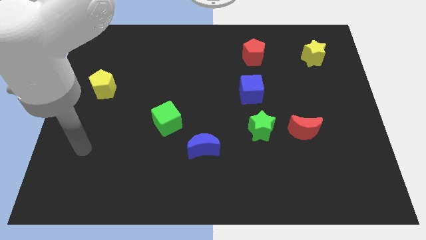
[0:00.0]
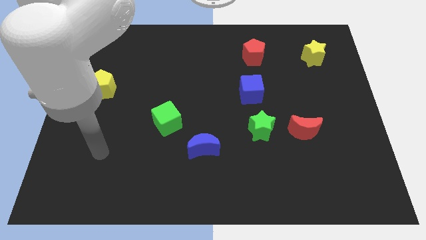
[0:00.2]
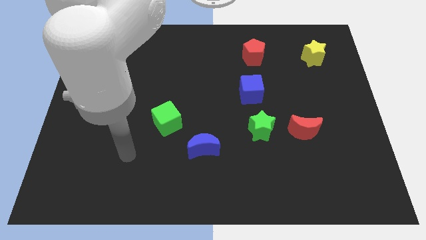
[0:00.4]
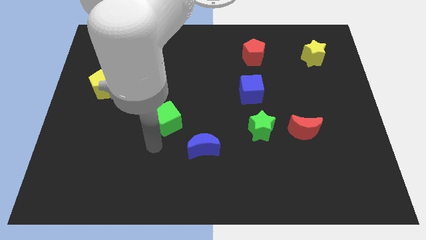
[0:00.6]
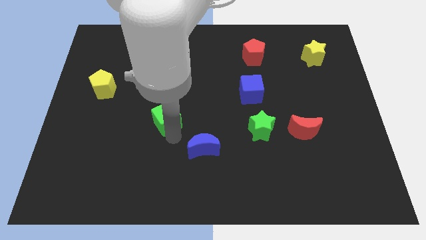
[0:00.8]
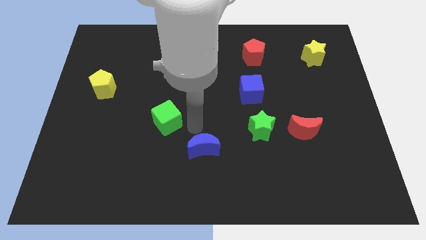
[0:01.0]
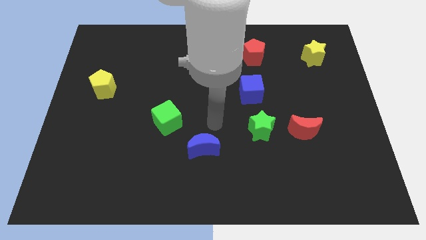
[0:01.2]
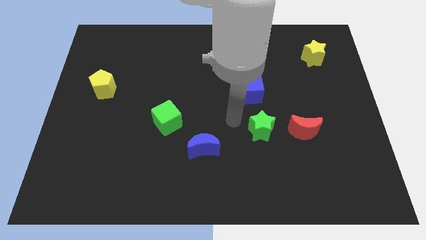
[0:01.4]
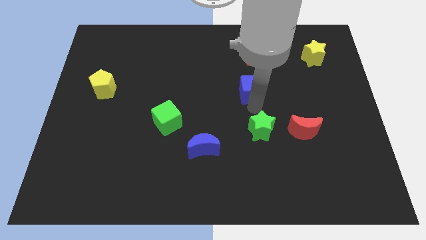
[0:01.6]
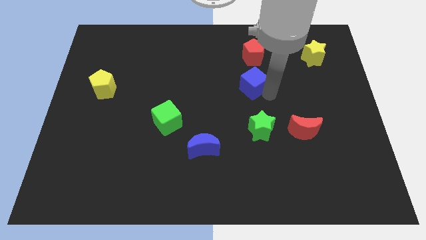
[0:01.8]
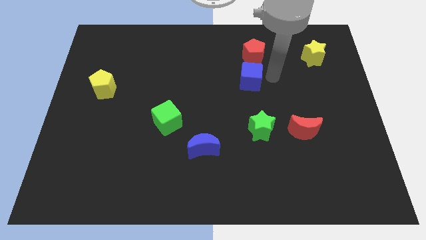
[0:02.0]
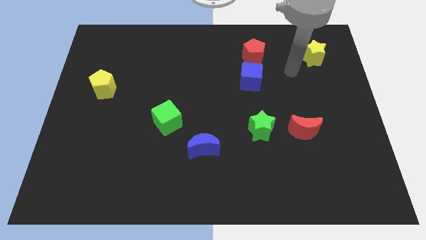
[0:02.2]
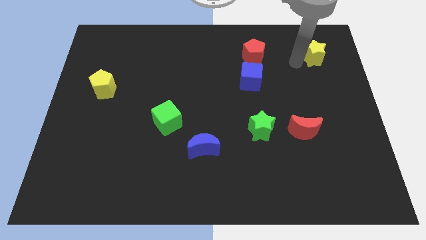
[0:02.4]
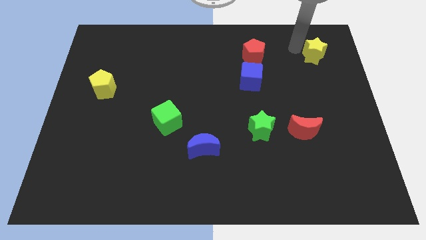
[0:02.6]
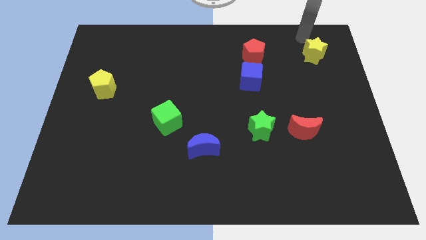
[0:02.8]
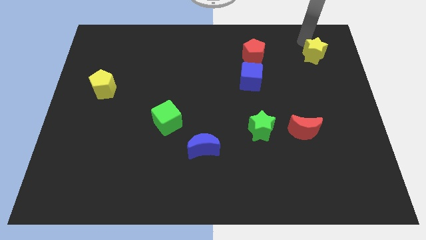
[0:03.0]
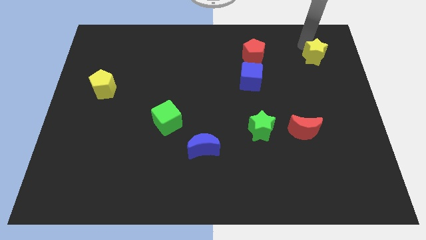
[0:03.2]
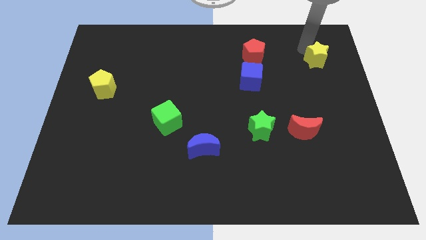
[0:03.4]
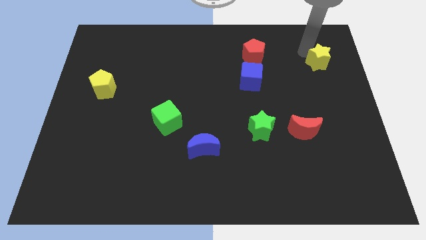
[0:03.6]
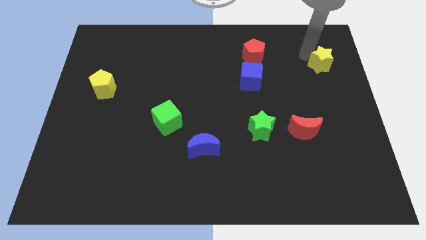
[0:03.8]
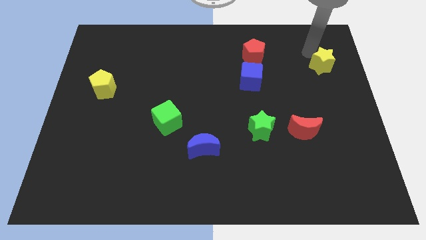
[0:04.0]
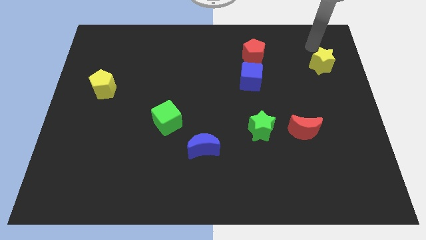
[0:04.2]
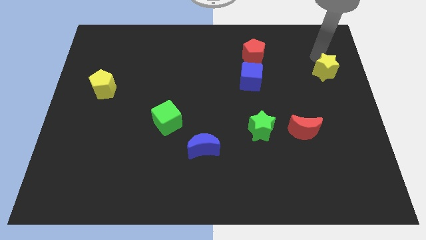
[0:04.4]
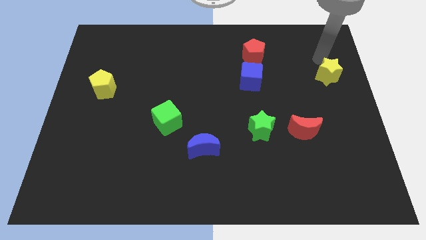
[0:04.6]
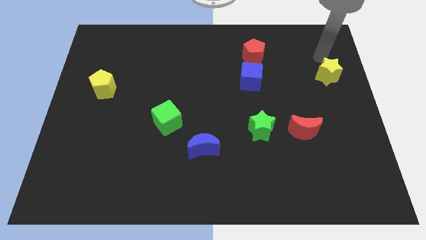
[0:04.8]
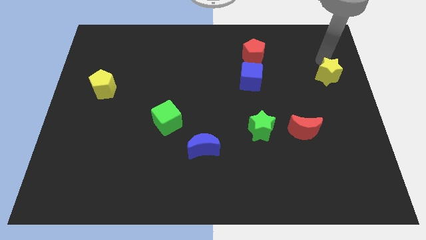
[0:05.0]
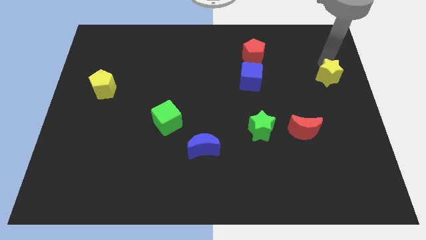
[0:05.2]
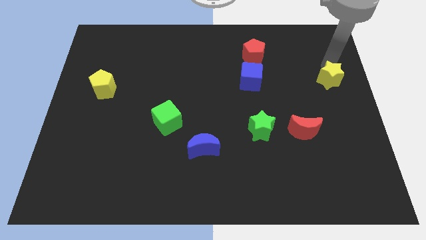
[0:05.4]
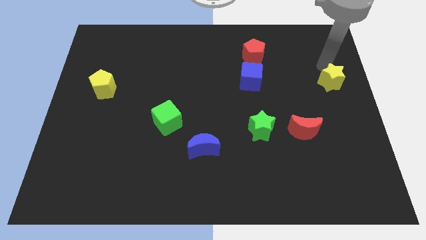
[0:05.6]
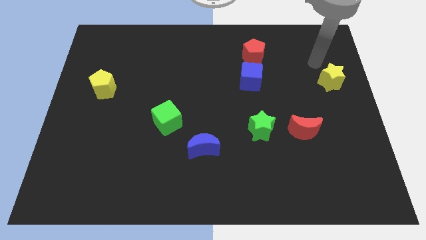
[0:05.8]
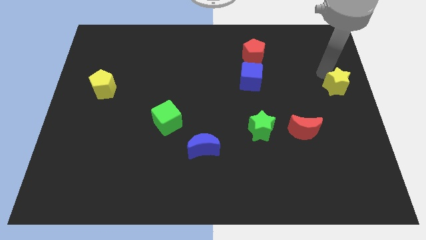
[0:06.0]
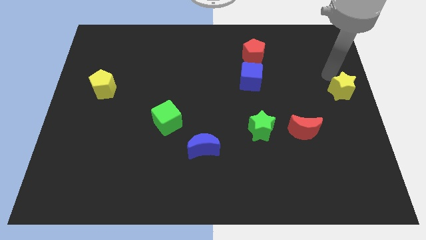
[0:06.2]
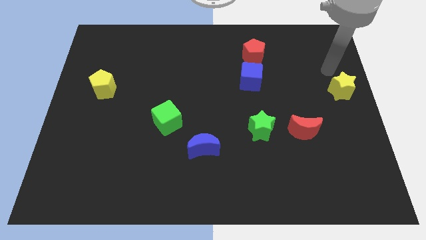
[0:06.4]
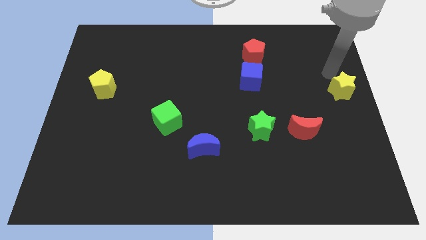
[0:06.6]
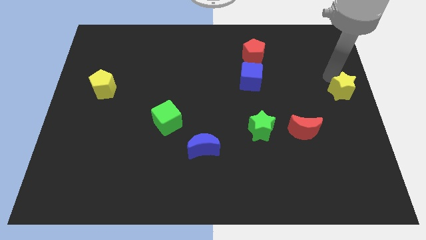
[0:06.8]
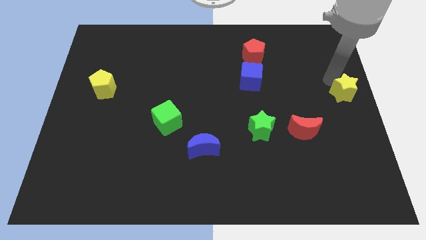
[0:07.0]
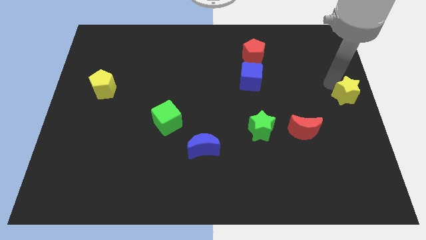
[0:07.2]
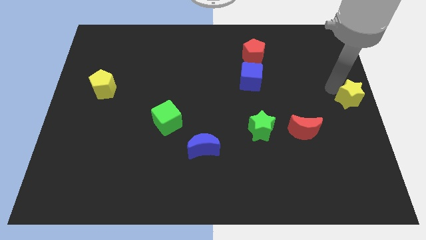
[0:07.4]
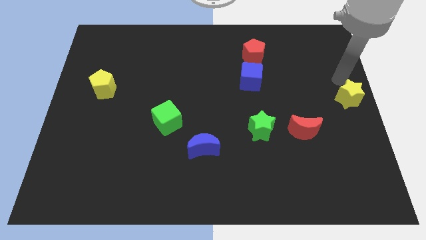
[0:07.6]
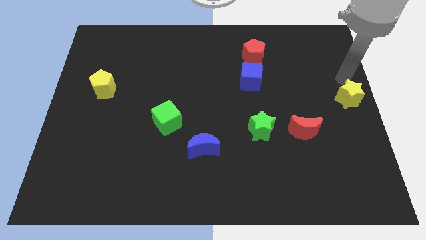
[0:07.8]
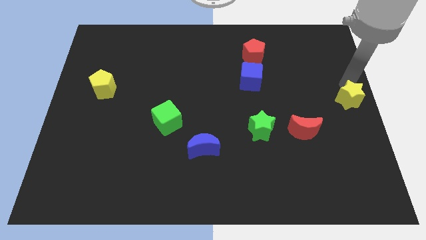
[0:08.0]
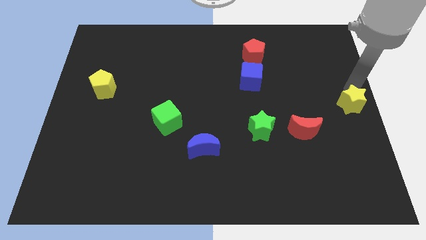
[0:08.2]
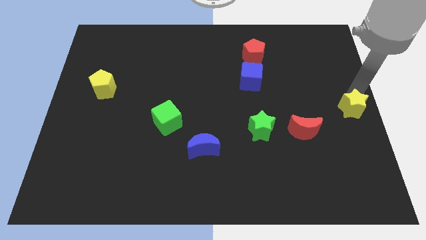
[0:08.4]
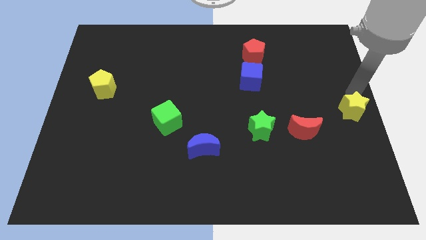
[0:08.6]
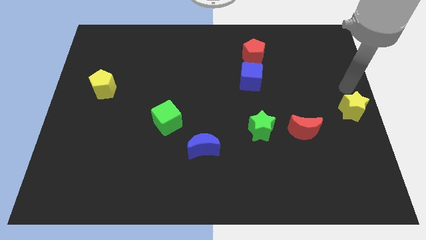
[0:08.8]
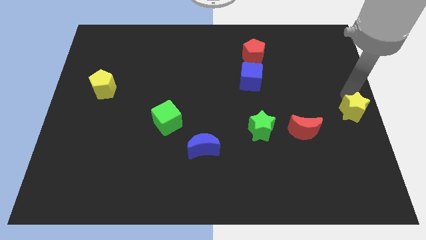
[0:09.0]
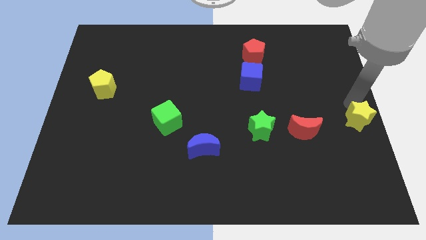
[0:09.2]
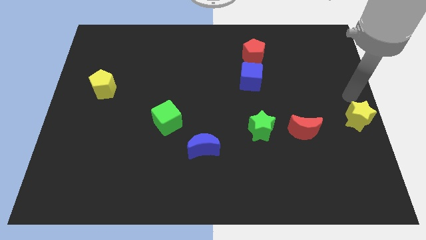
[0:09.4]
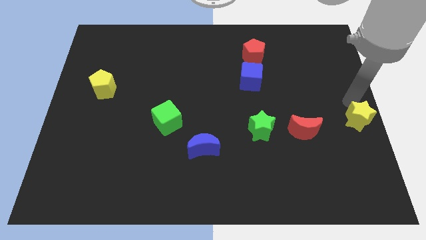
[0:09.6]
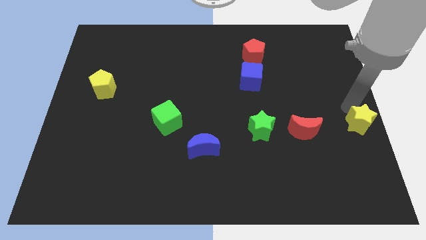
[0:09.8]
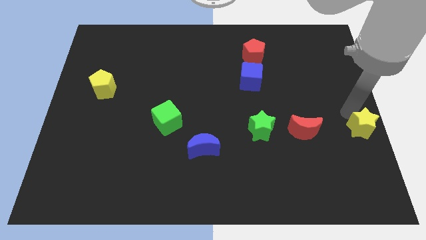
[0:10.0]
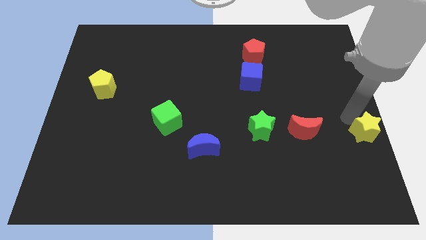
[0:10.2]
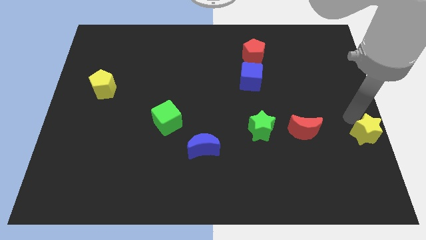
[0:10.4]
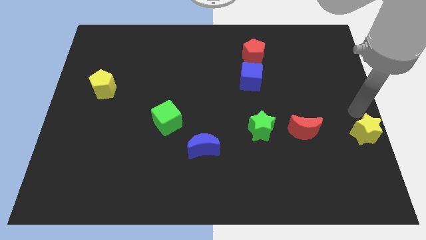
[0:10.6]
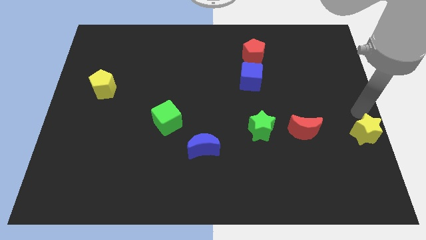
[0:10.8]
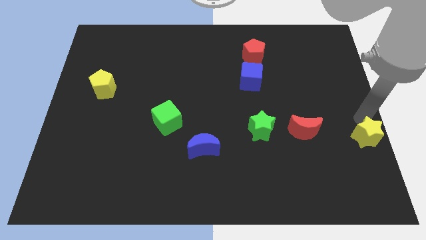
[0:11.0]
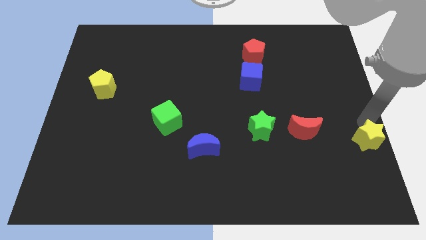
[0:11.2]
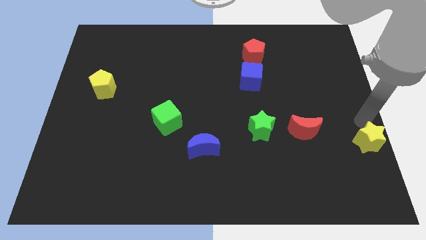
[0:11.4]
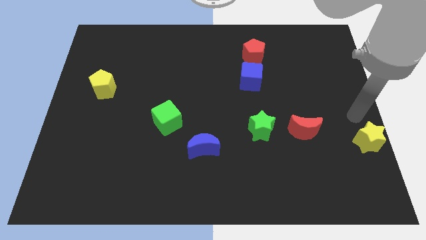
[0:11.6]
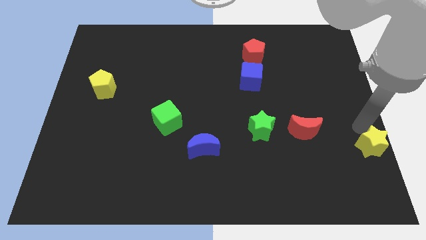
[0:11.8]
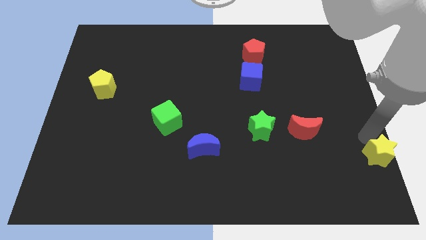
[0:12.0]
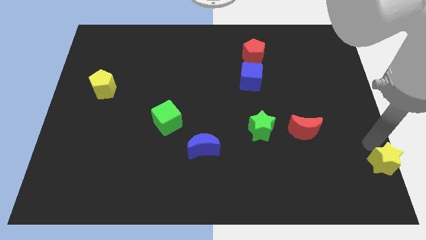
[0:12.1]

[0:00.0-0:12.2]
slide the yellow star to the bottom right of the board

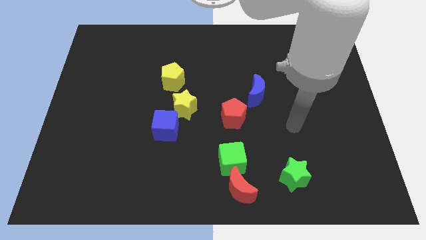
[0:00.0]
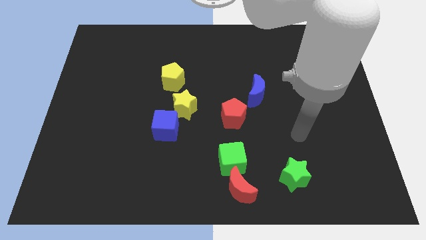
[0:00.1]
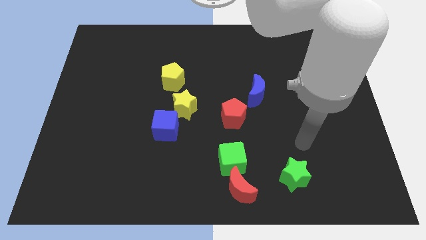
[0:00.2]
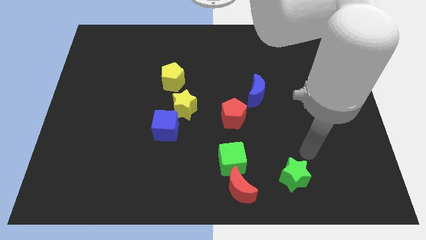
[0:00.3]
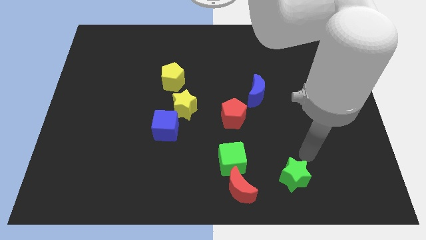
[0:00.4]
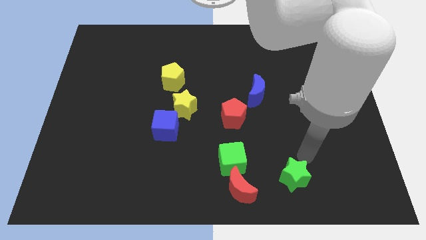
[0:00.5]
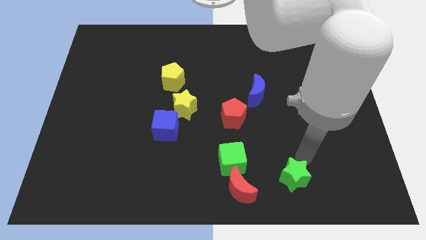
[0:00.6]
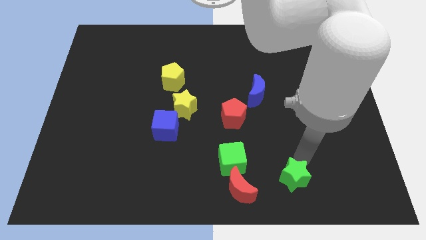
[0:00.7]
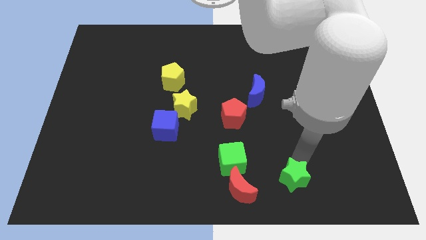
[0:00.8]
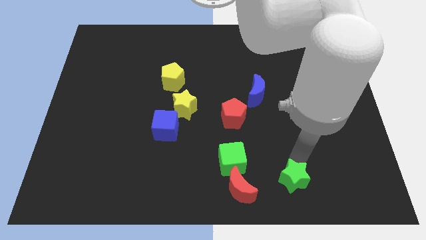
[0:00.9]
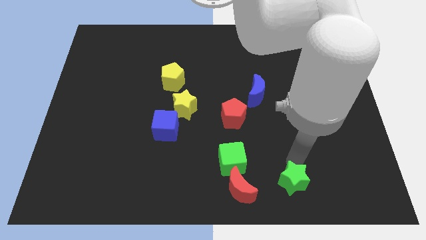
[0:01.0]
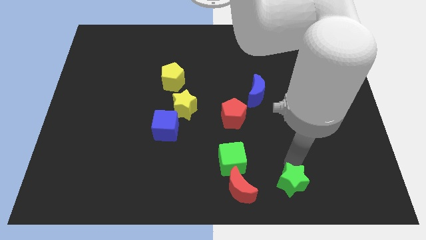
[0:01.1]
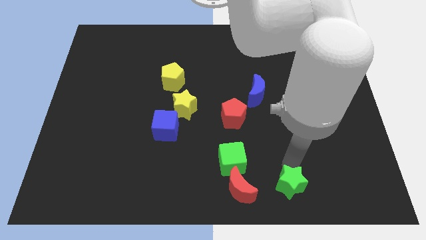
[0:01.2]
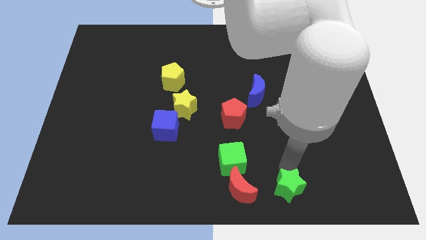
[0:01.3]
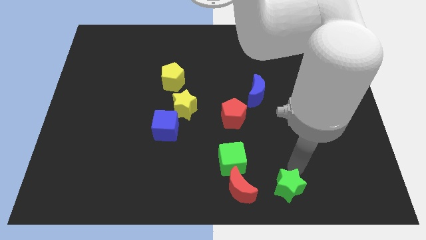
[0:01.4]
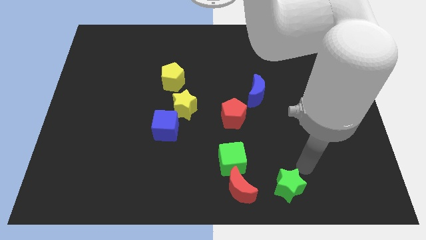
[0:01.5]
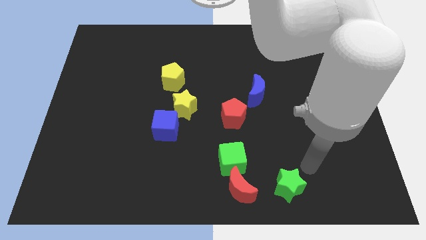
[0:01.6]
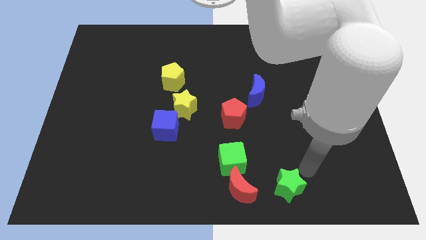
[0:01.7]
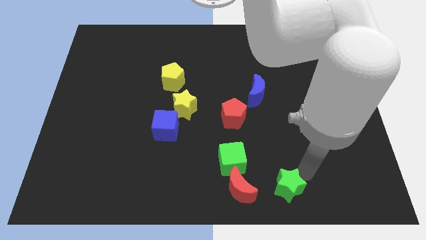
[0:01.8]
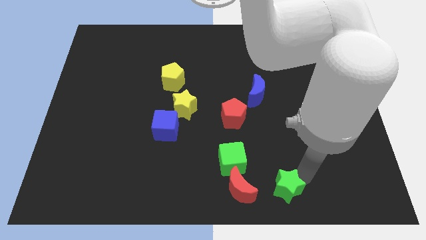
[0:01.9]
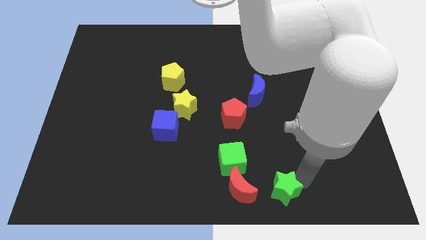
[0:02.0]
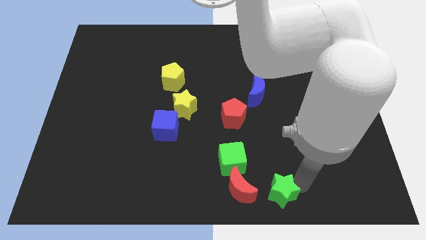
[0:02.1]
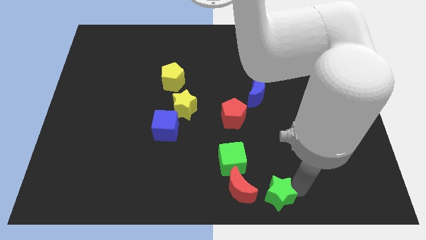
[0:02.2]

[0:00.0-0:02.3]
put the green star to the bottom side
